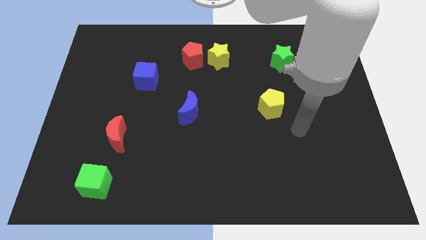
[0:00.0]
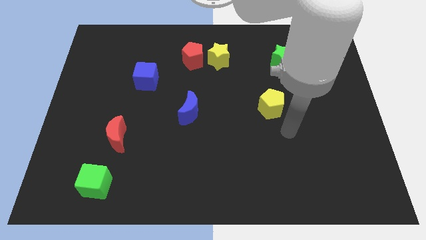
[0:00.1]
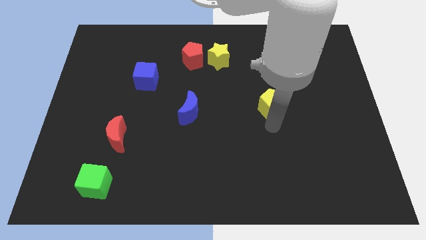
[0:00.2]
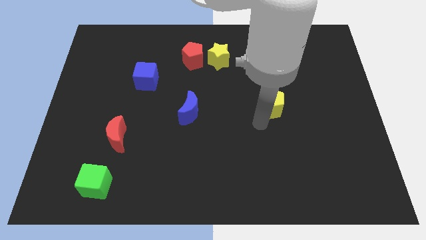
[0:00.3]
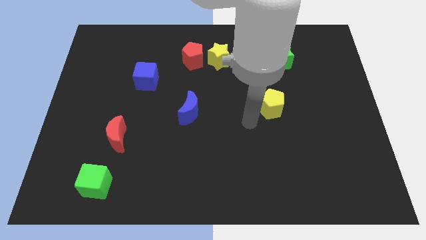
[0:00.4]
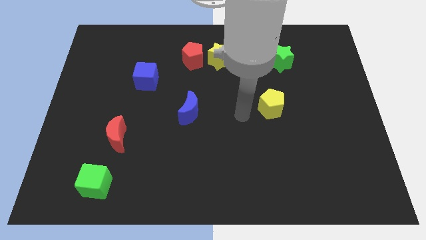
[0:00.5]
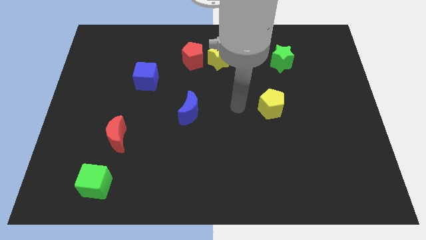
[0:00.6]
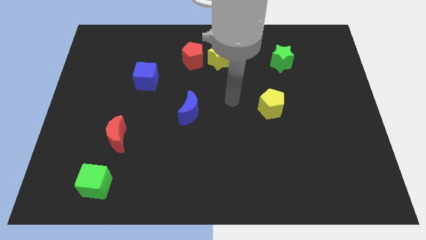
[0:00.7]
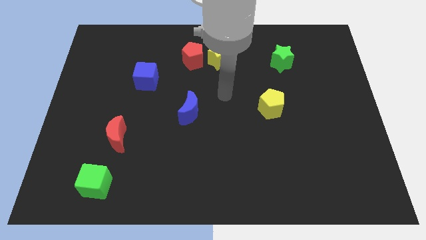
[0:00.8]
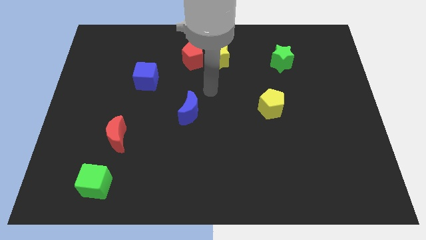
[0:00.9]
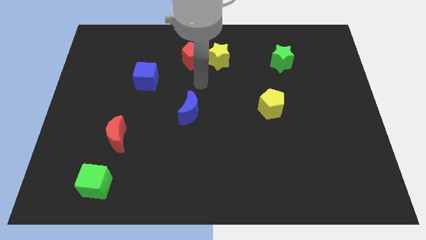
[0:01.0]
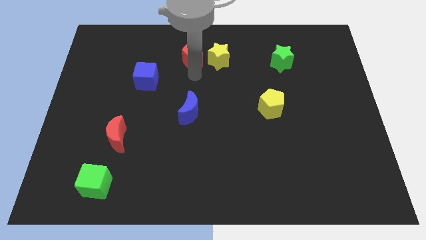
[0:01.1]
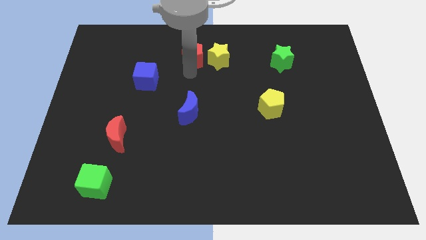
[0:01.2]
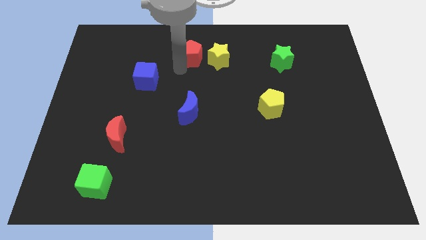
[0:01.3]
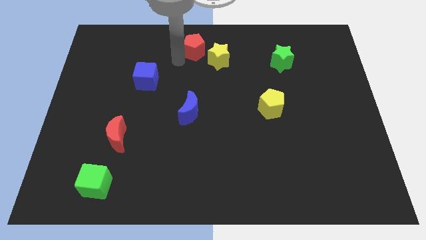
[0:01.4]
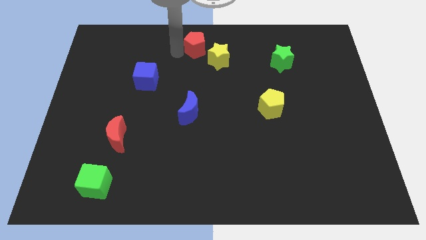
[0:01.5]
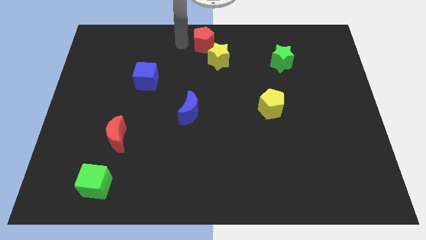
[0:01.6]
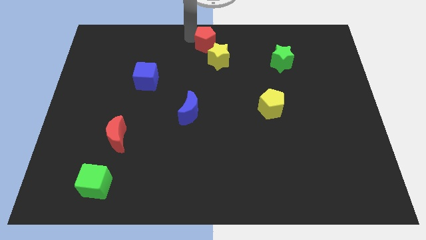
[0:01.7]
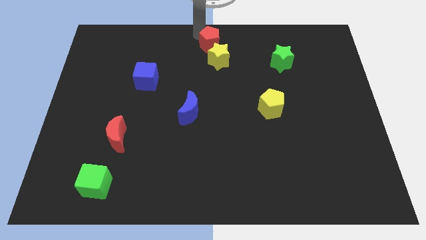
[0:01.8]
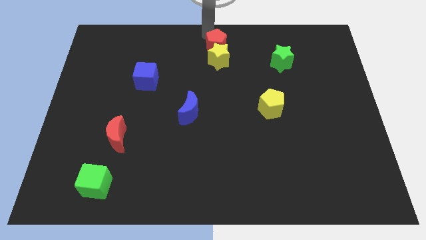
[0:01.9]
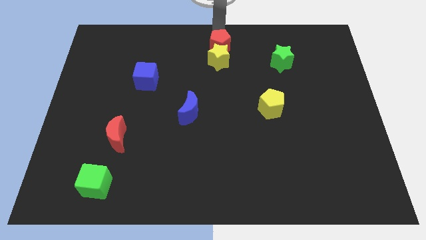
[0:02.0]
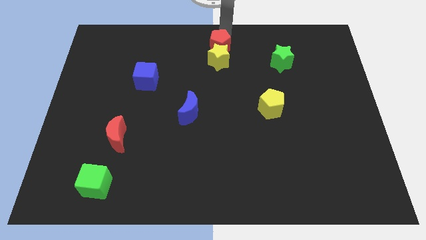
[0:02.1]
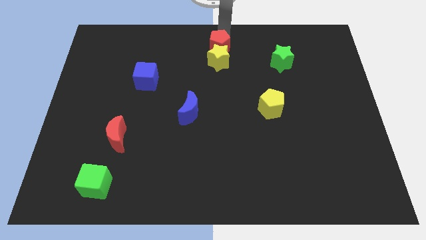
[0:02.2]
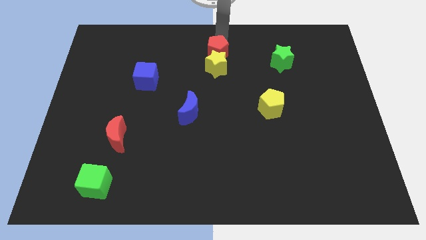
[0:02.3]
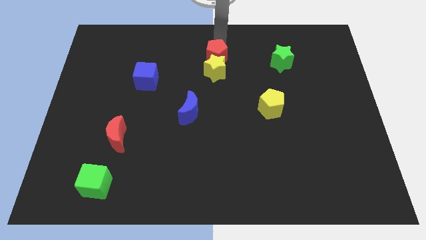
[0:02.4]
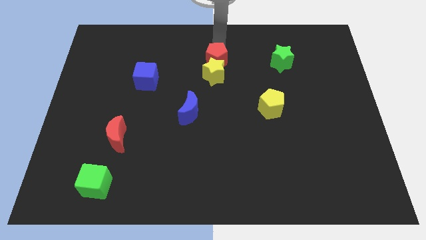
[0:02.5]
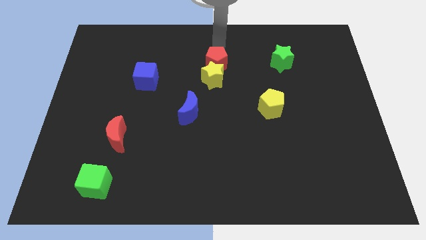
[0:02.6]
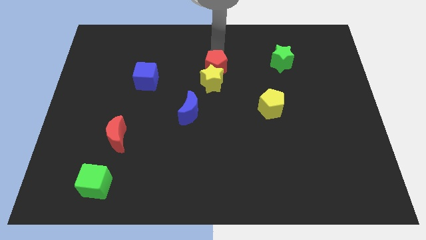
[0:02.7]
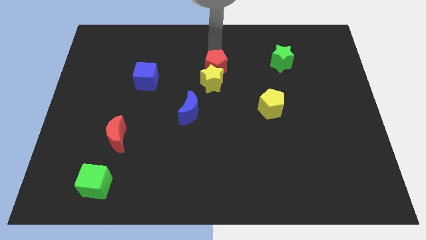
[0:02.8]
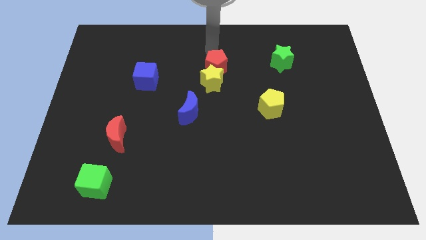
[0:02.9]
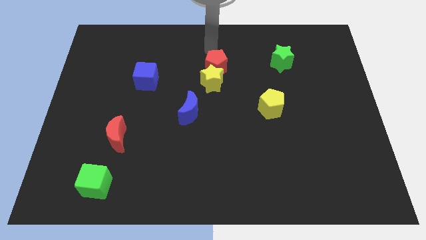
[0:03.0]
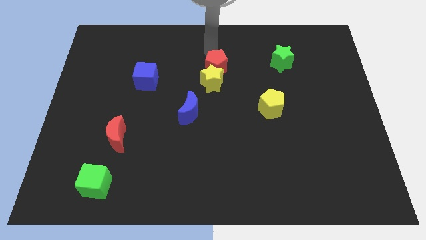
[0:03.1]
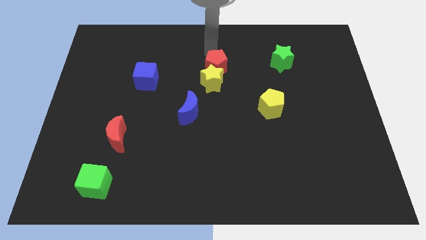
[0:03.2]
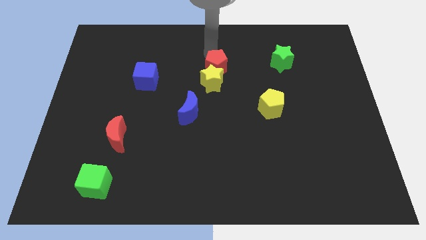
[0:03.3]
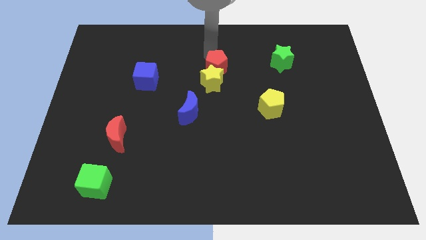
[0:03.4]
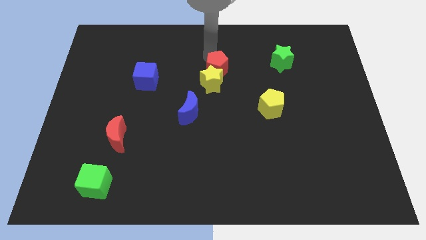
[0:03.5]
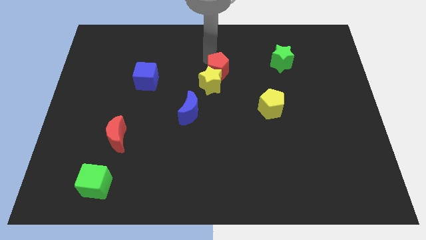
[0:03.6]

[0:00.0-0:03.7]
move the red pentagon down and to the right diagonally a bit

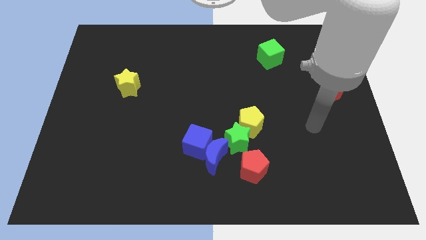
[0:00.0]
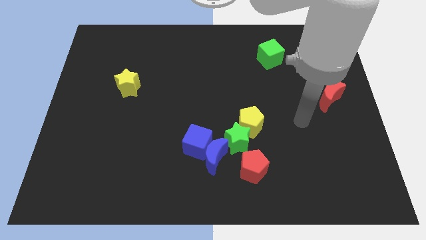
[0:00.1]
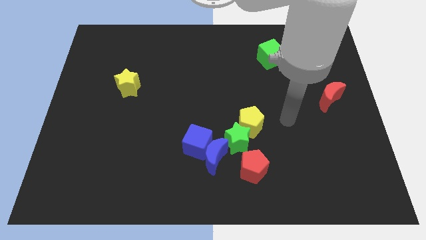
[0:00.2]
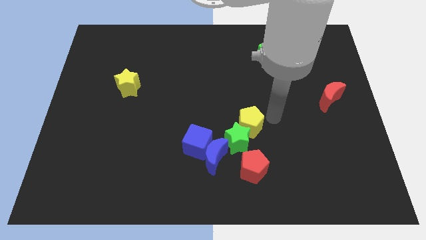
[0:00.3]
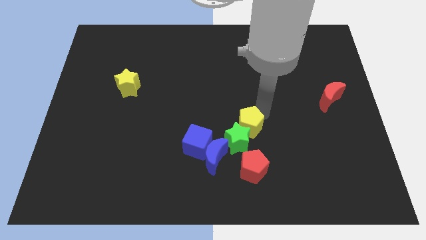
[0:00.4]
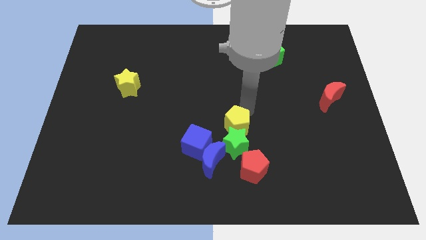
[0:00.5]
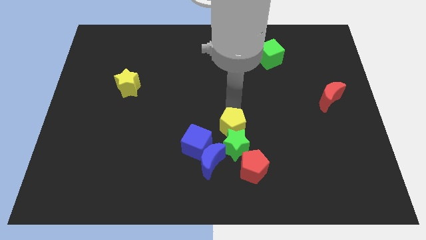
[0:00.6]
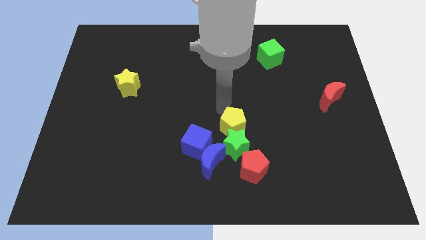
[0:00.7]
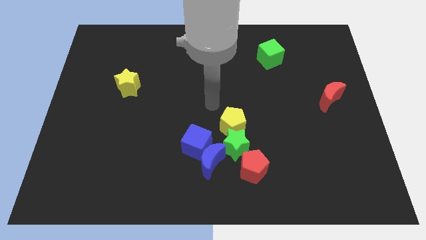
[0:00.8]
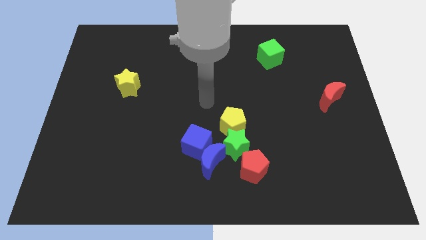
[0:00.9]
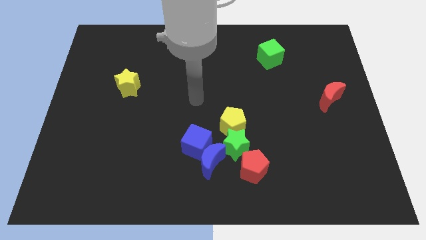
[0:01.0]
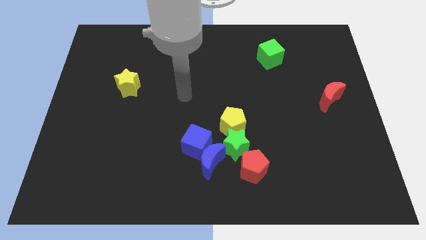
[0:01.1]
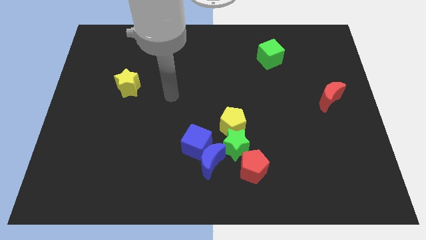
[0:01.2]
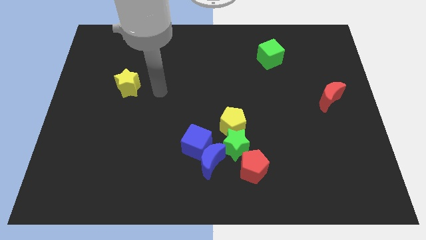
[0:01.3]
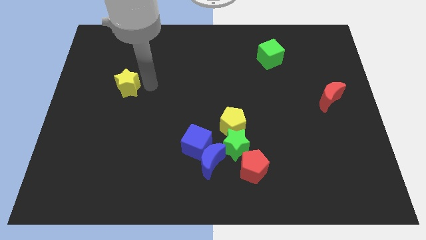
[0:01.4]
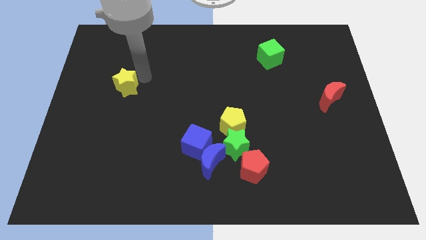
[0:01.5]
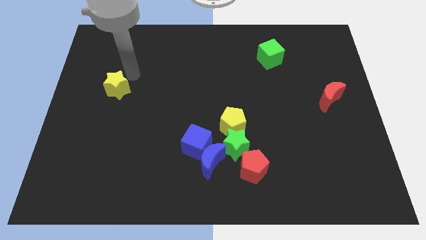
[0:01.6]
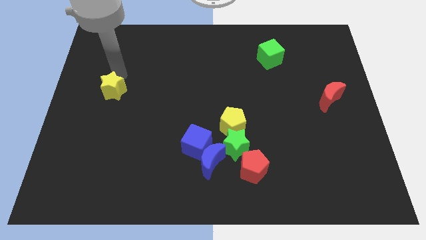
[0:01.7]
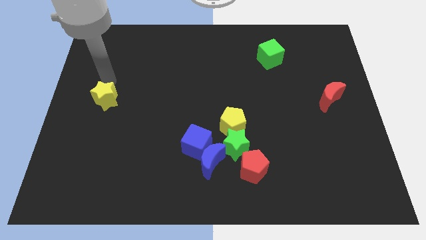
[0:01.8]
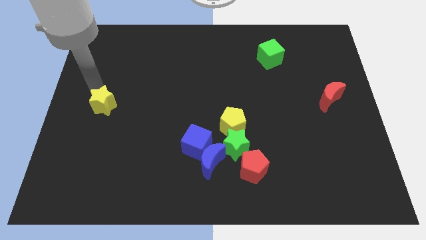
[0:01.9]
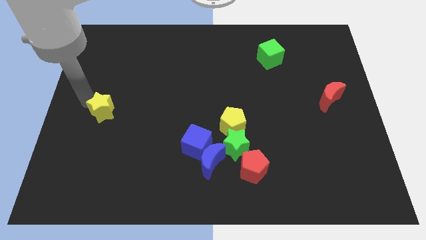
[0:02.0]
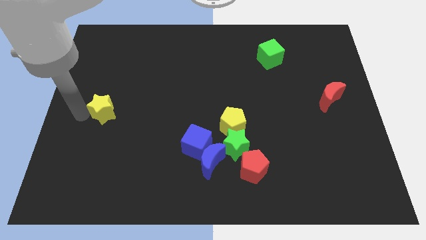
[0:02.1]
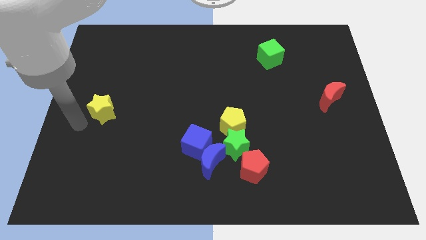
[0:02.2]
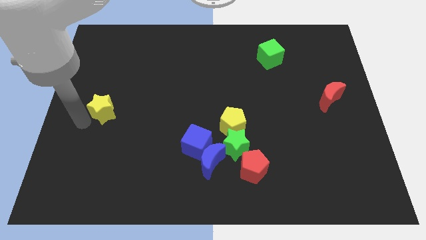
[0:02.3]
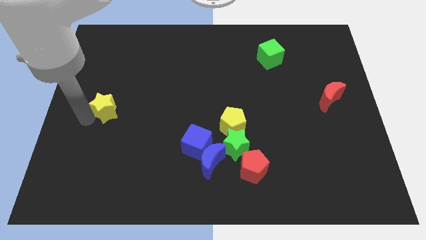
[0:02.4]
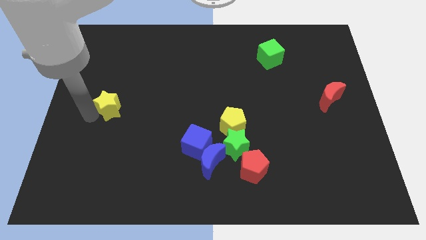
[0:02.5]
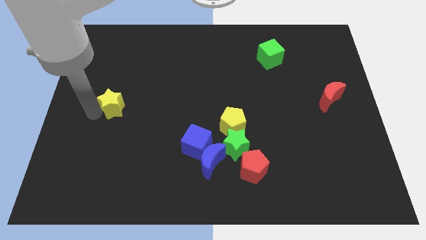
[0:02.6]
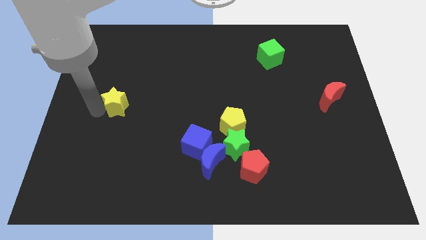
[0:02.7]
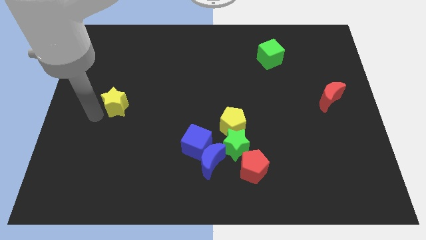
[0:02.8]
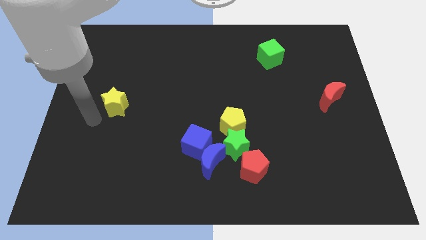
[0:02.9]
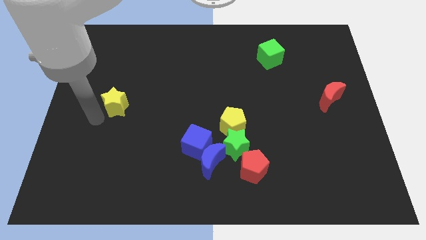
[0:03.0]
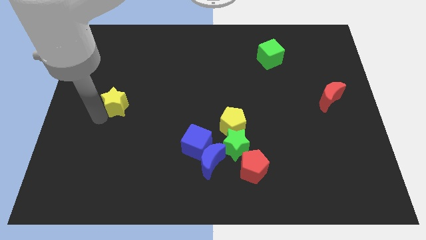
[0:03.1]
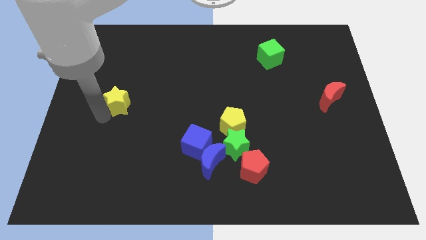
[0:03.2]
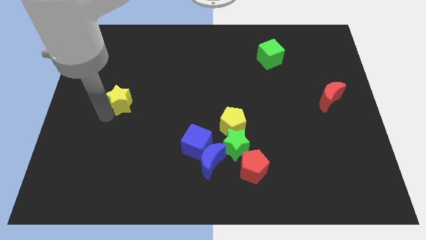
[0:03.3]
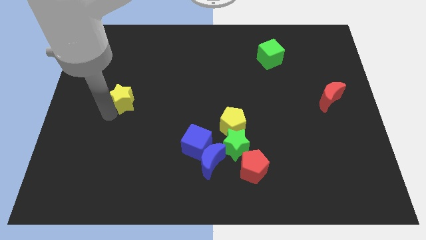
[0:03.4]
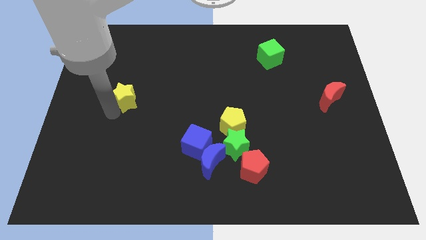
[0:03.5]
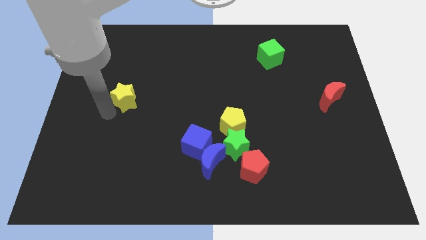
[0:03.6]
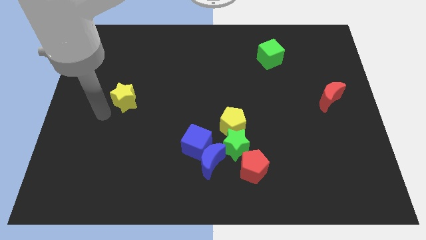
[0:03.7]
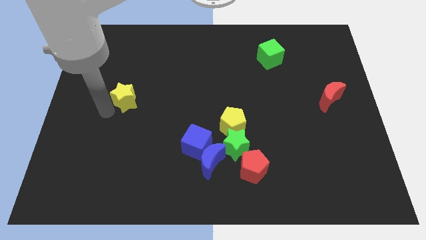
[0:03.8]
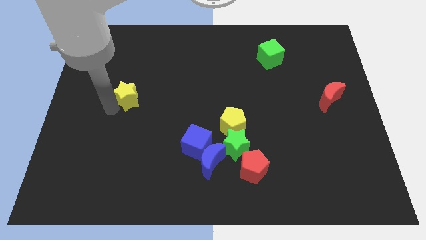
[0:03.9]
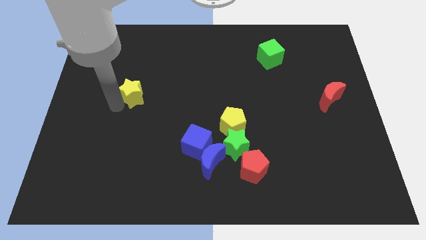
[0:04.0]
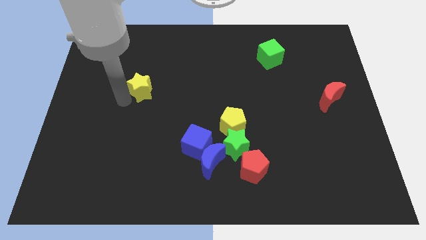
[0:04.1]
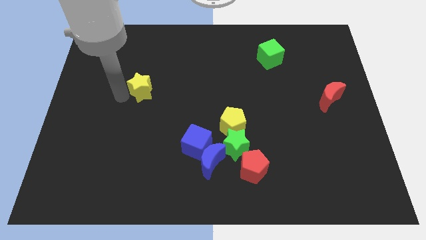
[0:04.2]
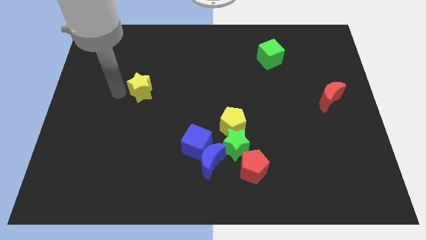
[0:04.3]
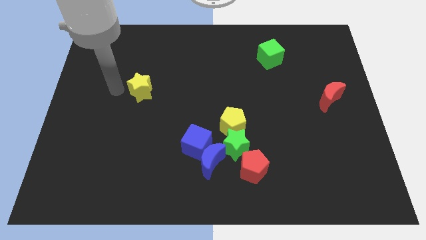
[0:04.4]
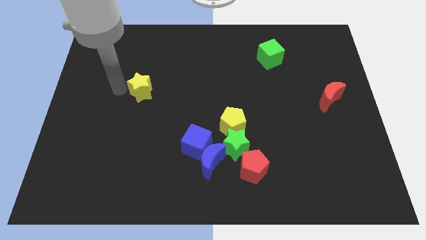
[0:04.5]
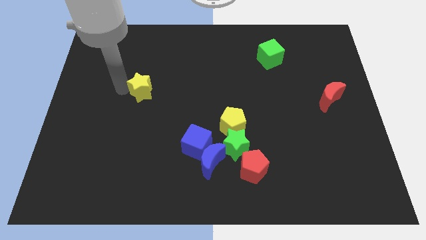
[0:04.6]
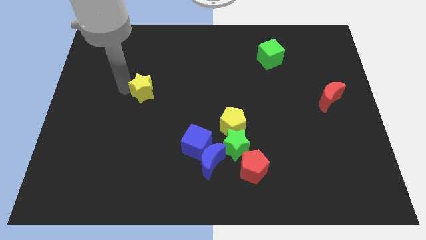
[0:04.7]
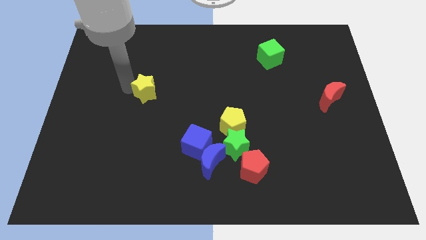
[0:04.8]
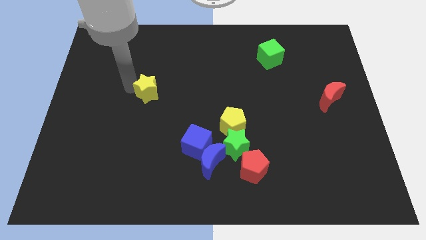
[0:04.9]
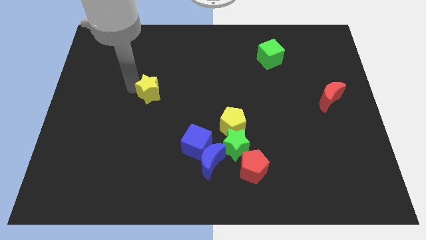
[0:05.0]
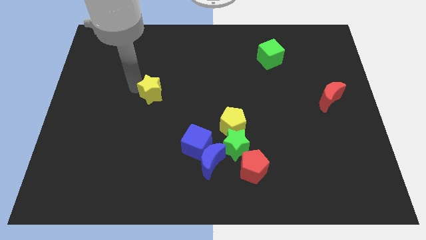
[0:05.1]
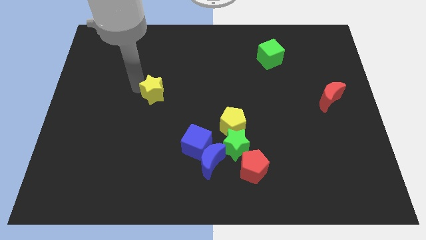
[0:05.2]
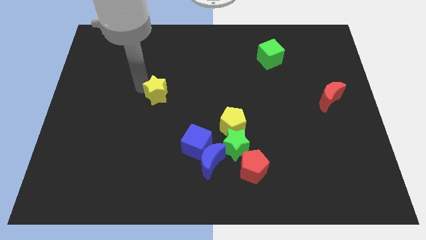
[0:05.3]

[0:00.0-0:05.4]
push the yellow star a bit to the right
